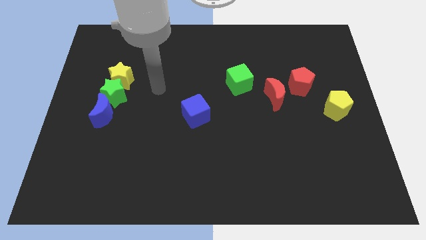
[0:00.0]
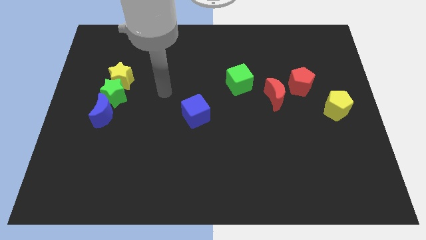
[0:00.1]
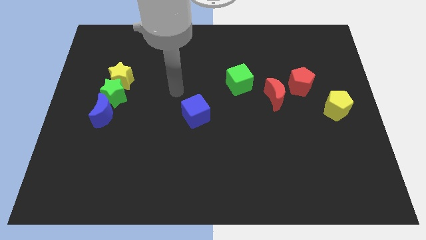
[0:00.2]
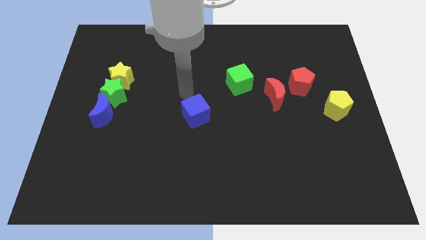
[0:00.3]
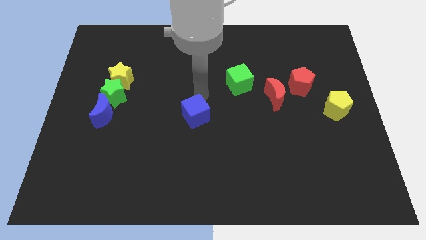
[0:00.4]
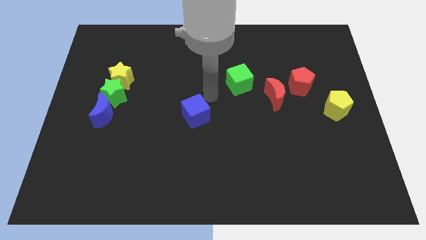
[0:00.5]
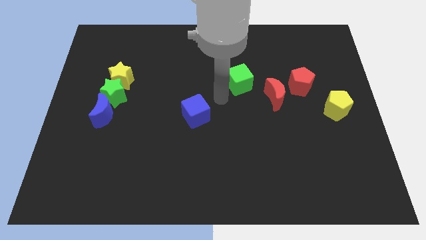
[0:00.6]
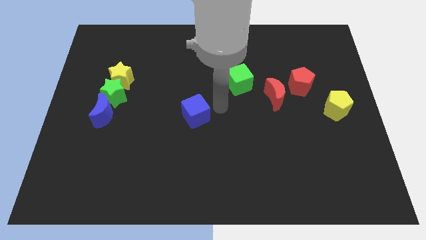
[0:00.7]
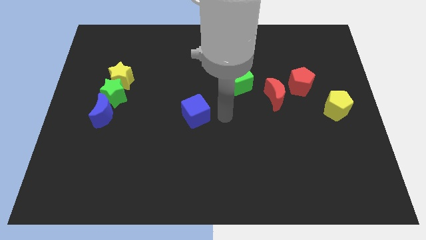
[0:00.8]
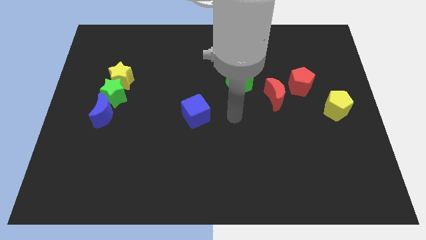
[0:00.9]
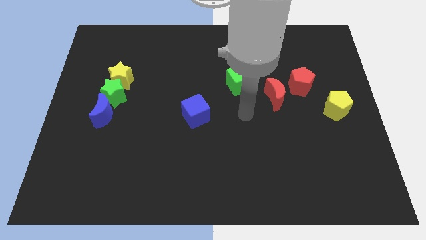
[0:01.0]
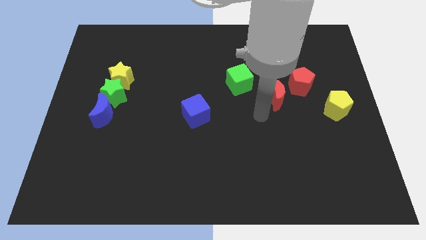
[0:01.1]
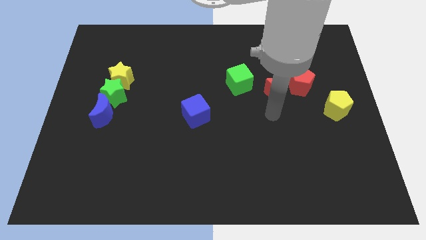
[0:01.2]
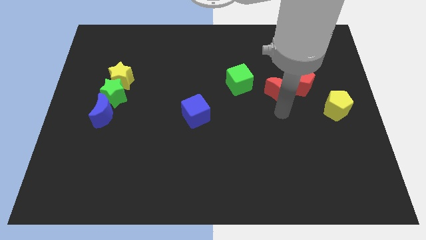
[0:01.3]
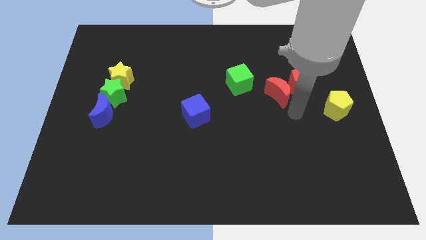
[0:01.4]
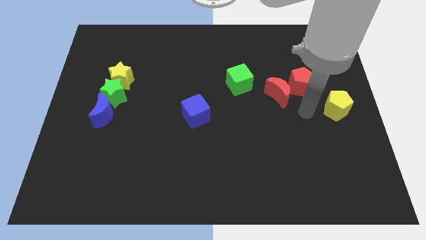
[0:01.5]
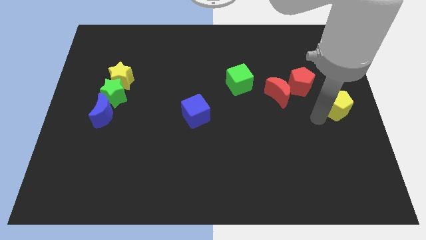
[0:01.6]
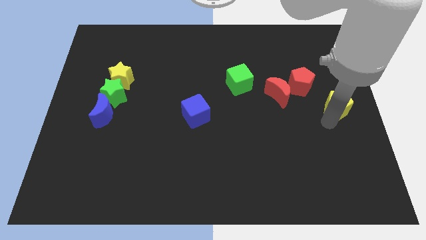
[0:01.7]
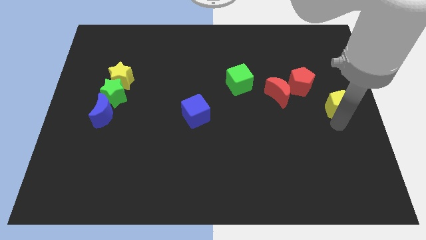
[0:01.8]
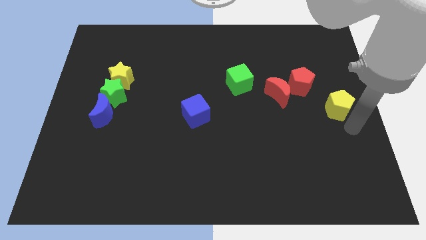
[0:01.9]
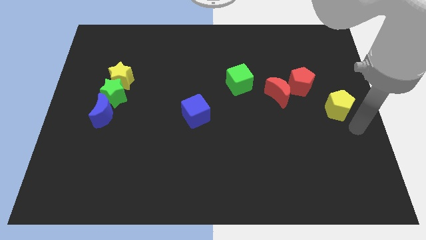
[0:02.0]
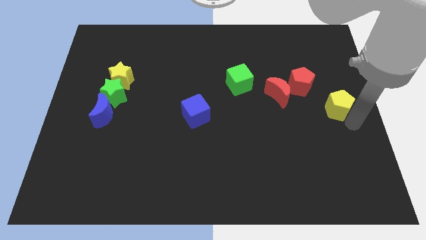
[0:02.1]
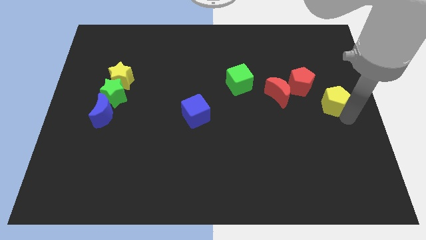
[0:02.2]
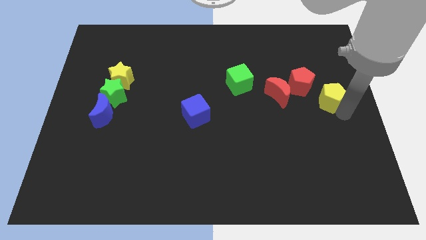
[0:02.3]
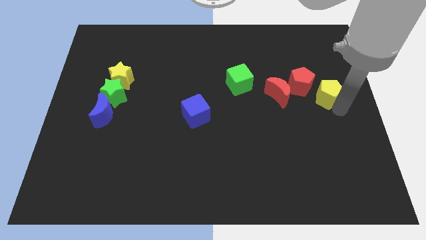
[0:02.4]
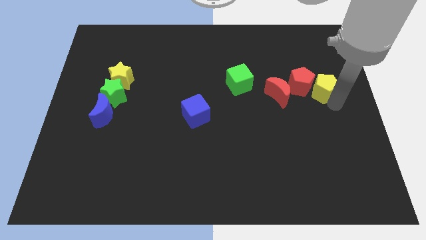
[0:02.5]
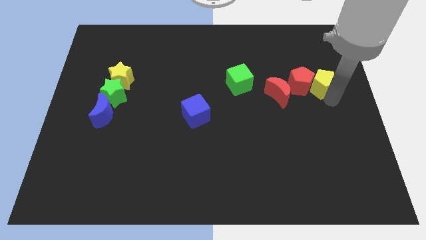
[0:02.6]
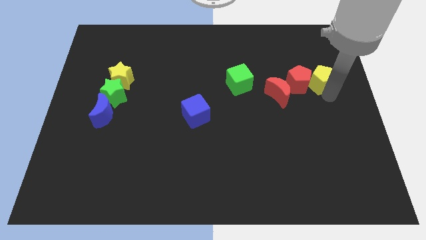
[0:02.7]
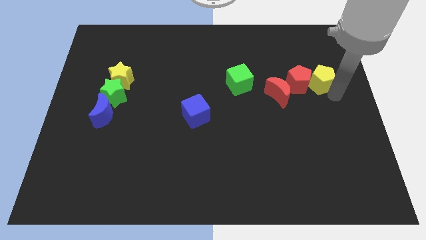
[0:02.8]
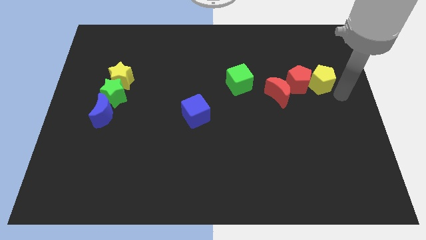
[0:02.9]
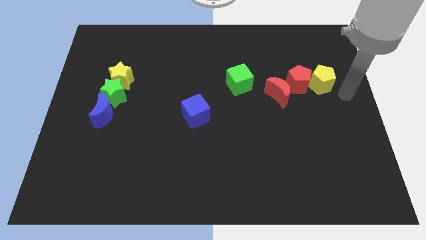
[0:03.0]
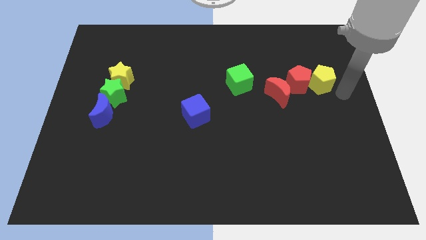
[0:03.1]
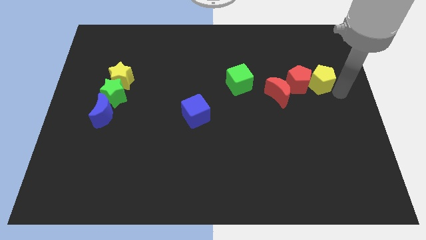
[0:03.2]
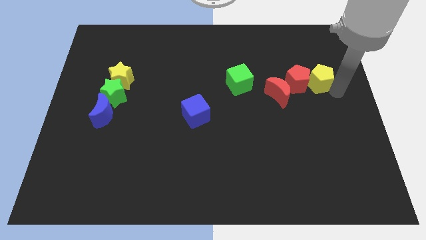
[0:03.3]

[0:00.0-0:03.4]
push the yellow pentagon upwards and left diagonally slightly

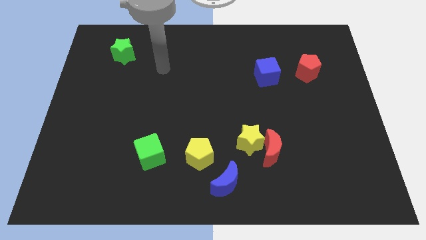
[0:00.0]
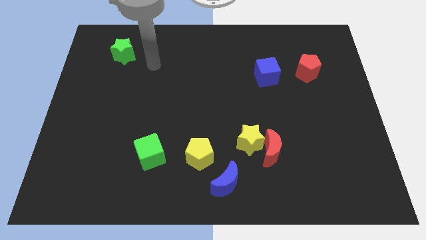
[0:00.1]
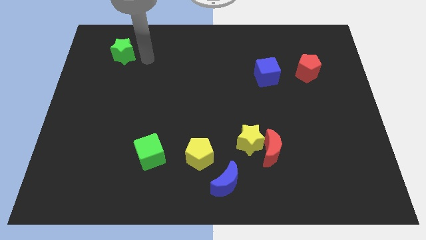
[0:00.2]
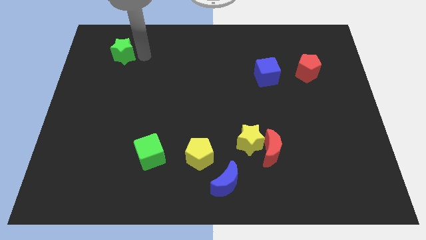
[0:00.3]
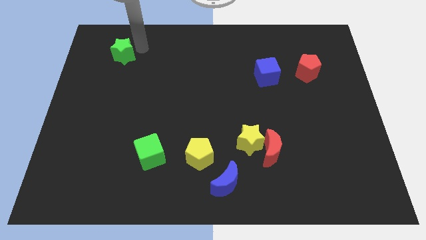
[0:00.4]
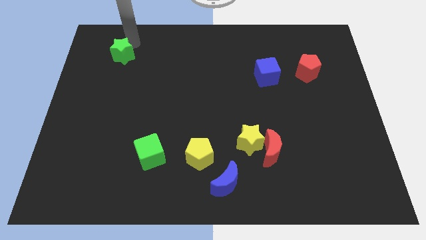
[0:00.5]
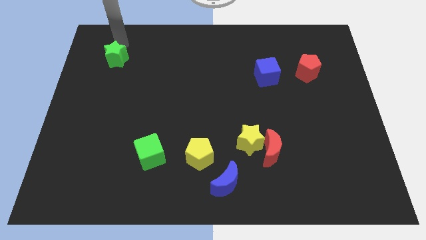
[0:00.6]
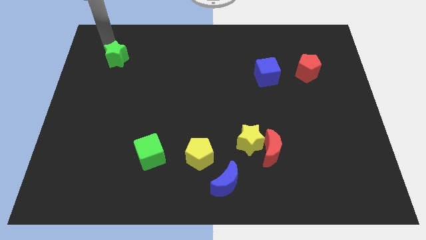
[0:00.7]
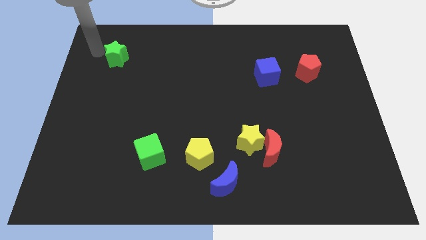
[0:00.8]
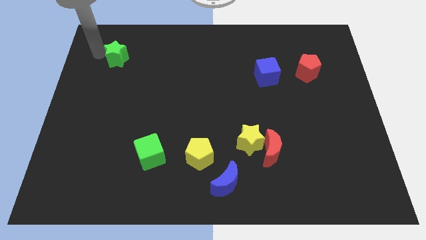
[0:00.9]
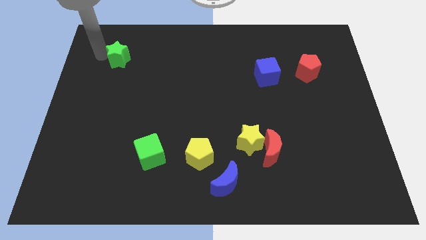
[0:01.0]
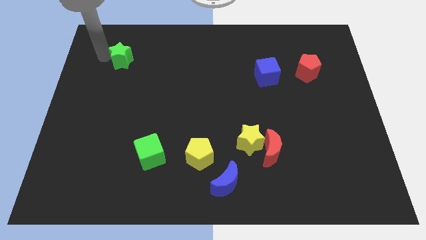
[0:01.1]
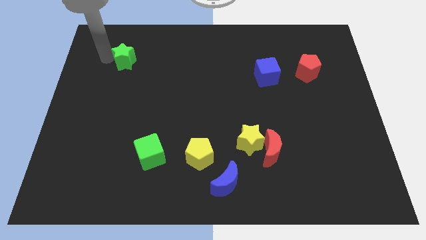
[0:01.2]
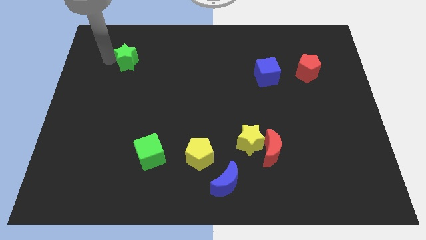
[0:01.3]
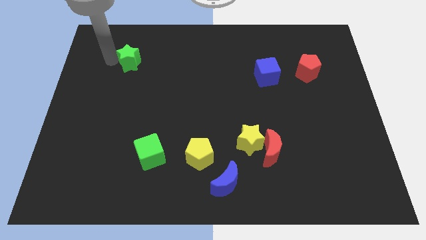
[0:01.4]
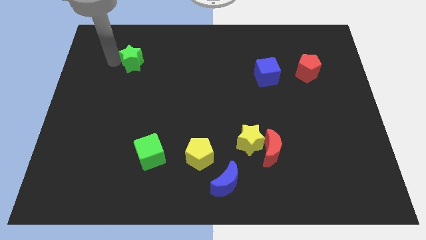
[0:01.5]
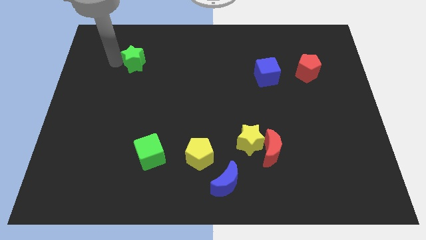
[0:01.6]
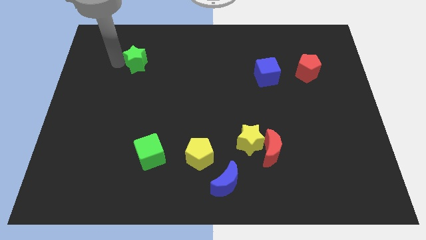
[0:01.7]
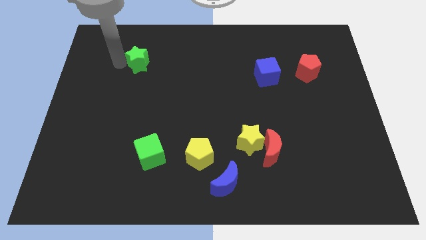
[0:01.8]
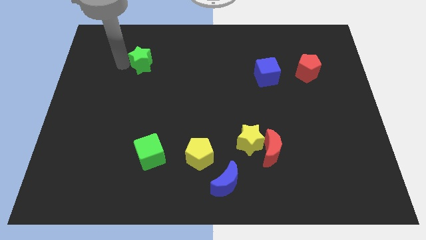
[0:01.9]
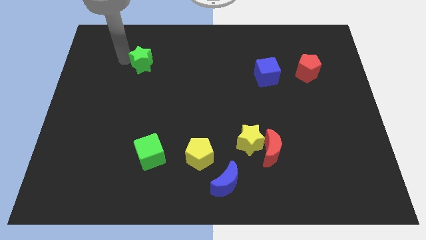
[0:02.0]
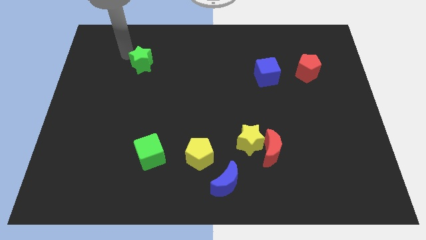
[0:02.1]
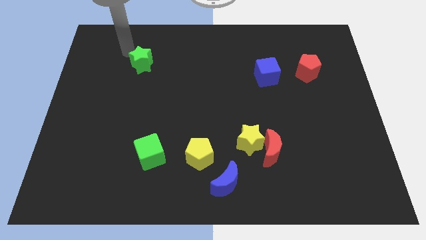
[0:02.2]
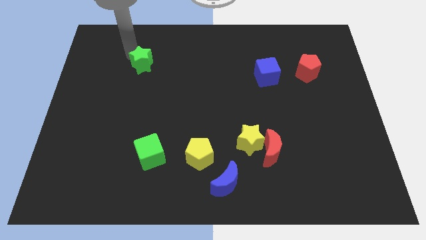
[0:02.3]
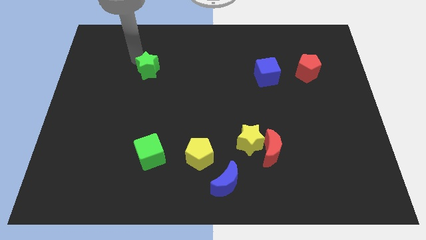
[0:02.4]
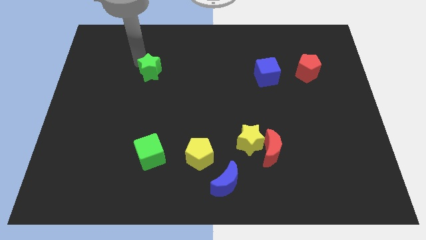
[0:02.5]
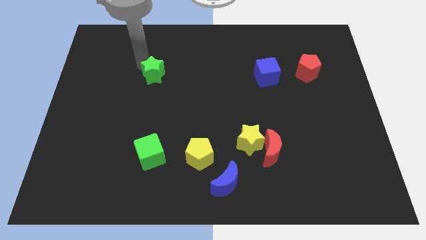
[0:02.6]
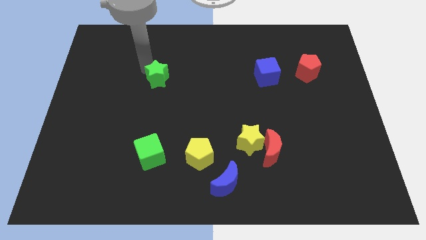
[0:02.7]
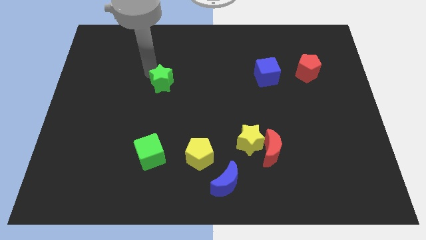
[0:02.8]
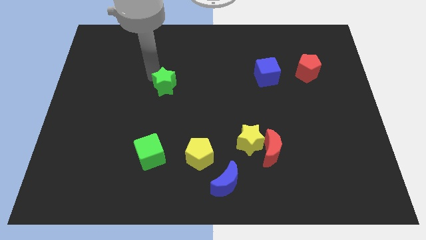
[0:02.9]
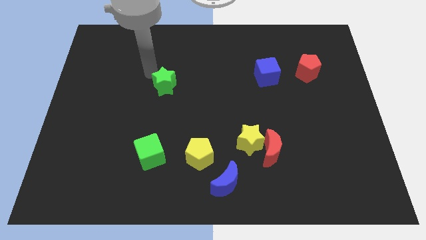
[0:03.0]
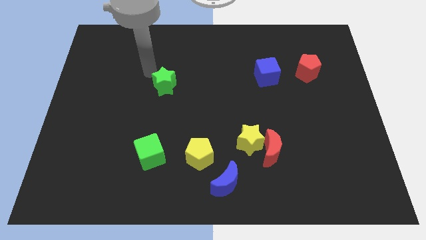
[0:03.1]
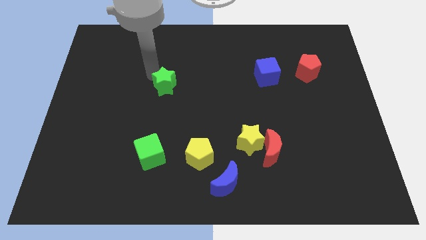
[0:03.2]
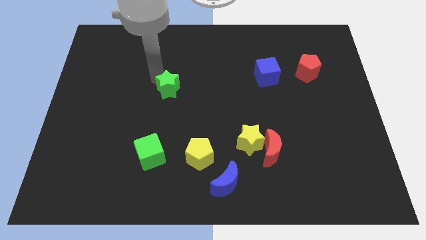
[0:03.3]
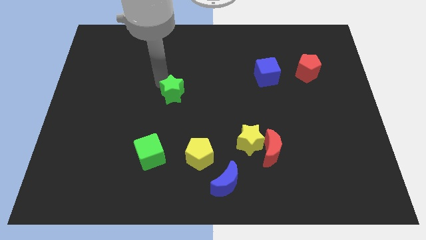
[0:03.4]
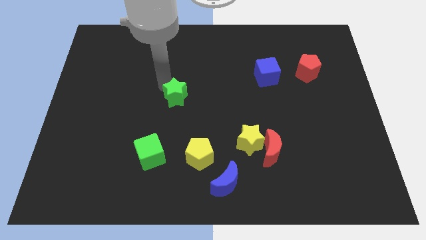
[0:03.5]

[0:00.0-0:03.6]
move the green star down and right

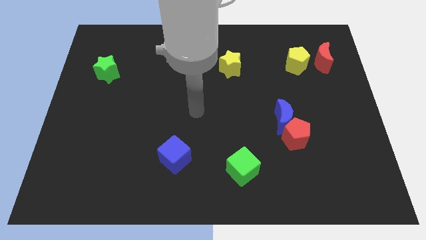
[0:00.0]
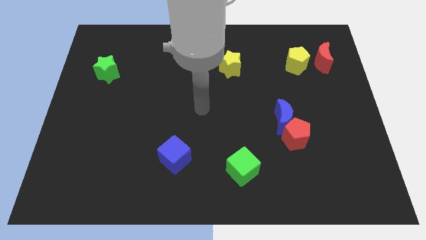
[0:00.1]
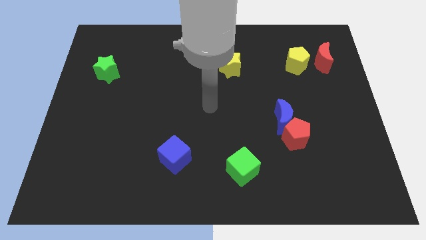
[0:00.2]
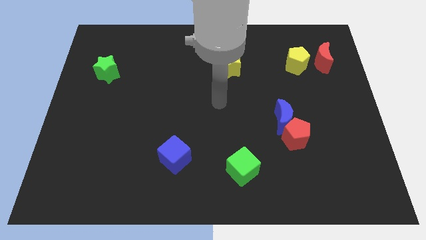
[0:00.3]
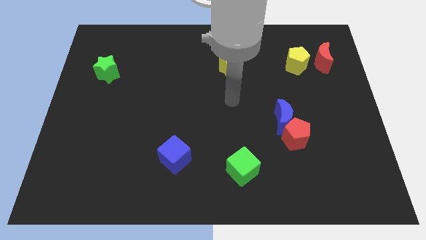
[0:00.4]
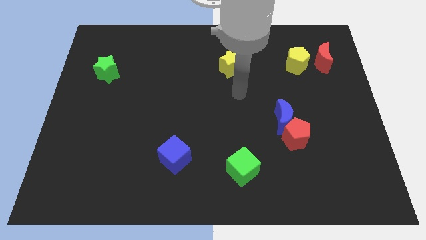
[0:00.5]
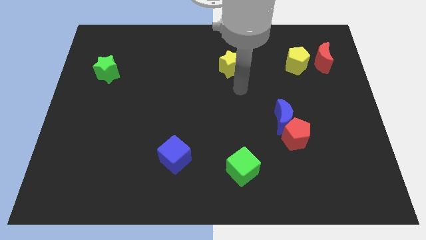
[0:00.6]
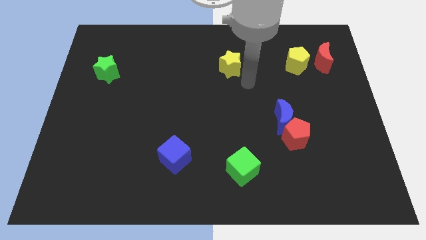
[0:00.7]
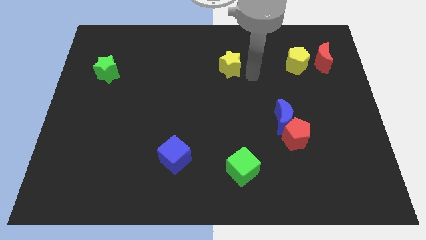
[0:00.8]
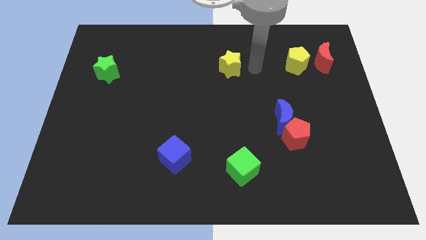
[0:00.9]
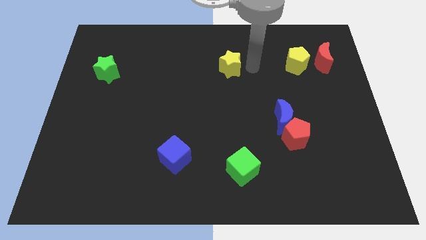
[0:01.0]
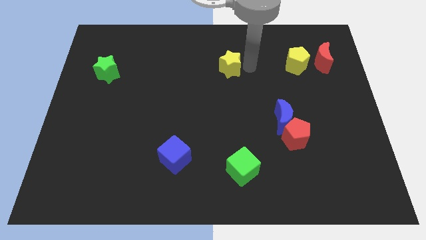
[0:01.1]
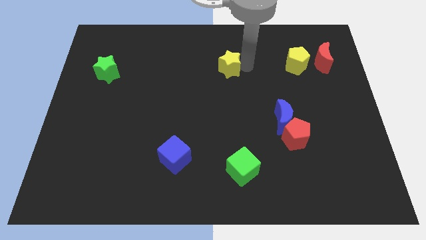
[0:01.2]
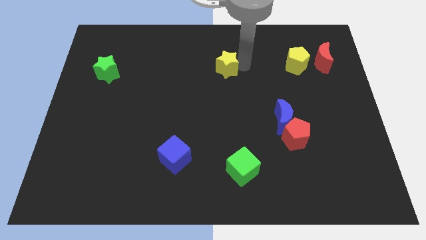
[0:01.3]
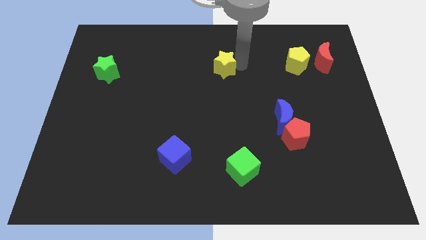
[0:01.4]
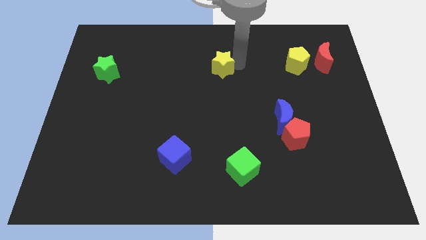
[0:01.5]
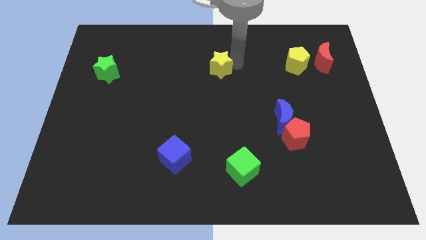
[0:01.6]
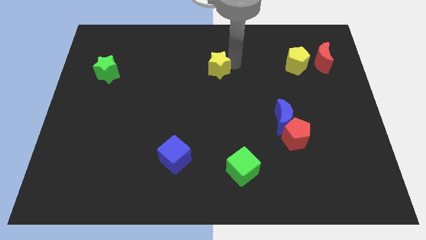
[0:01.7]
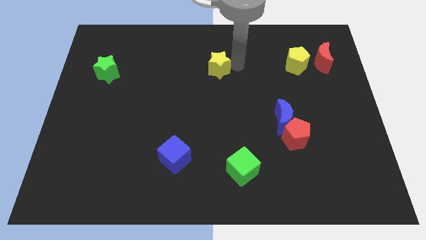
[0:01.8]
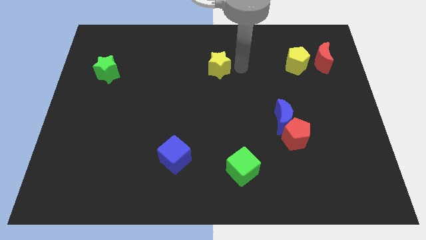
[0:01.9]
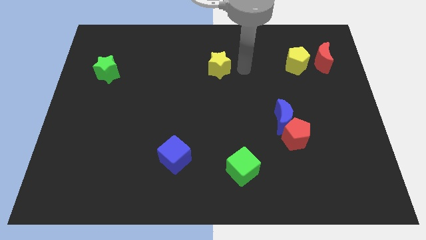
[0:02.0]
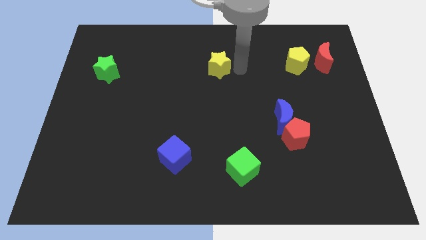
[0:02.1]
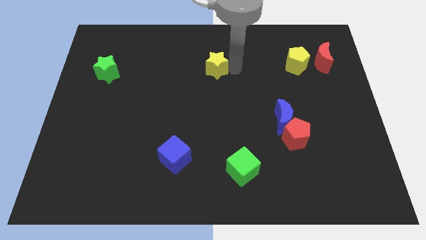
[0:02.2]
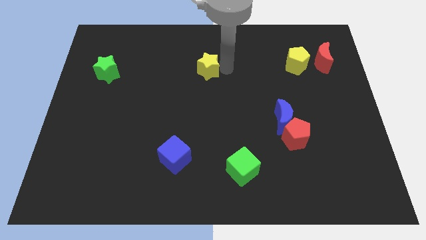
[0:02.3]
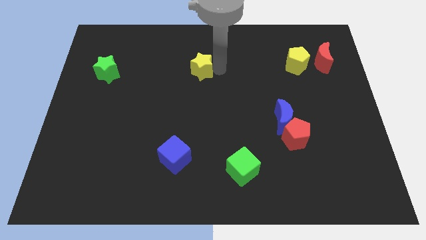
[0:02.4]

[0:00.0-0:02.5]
slide the yellow star a bit to the left
